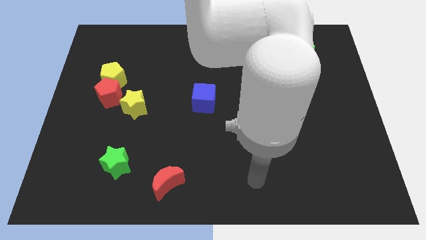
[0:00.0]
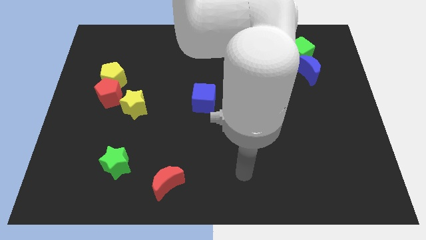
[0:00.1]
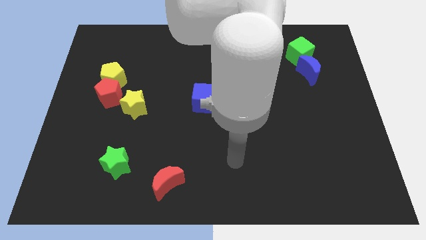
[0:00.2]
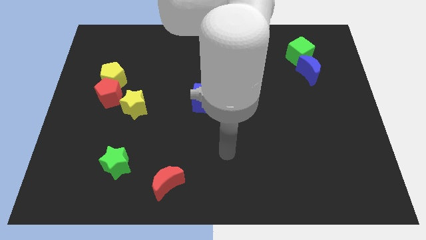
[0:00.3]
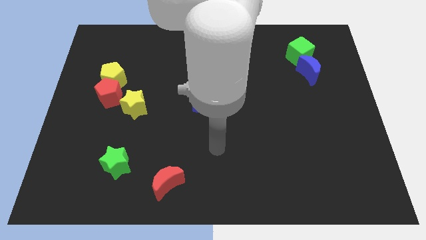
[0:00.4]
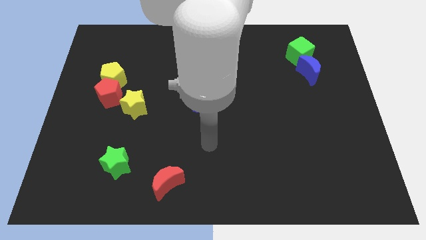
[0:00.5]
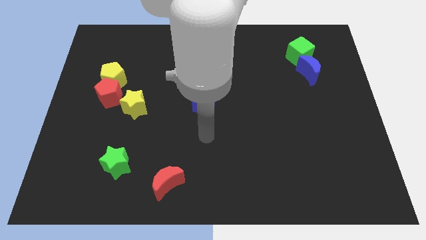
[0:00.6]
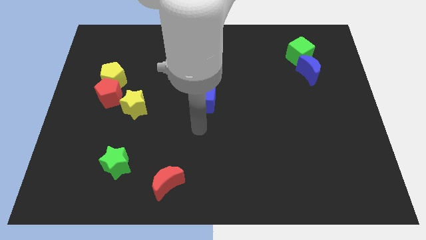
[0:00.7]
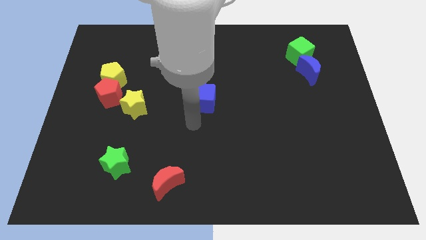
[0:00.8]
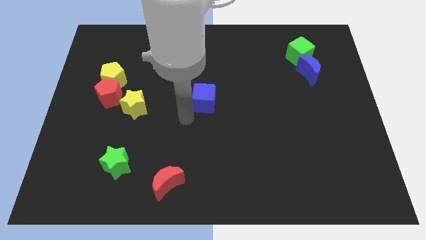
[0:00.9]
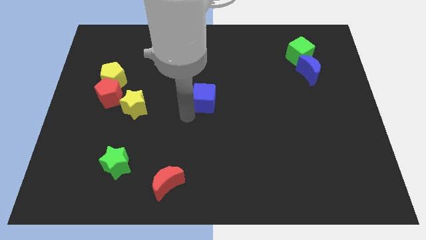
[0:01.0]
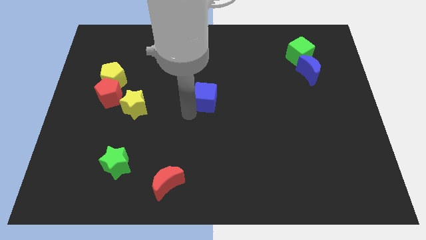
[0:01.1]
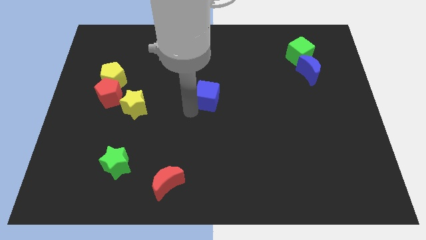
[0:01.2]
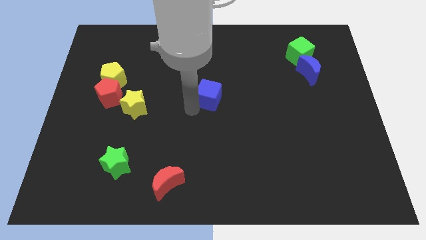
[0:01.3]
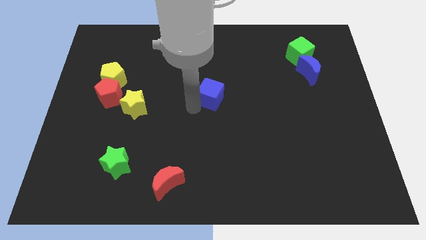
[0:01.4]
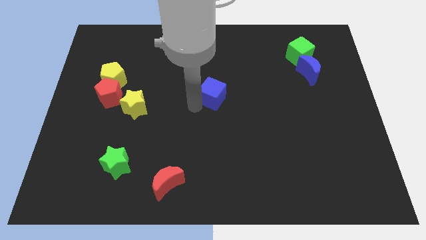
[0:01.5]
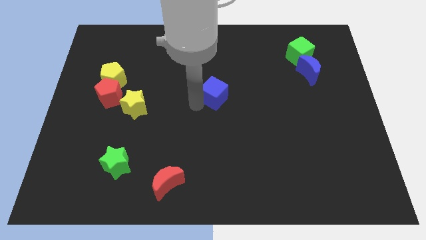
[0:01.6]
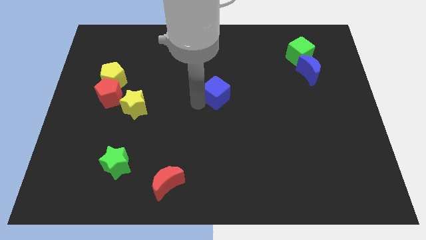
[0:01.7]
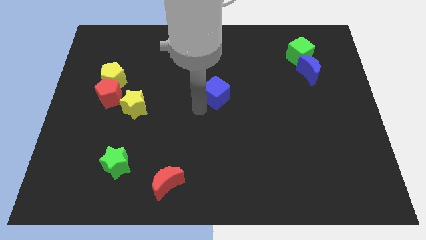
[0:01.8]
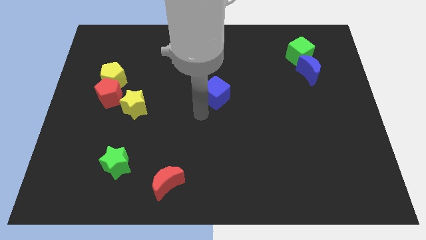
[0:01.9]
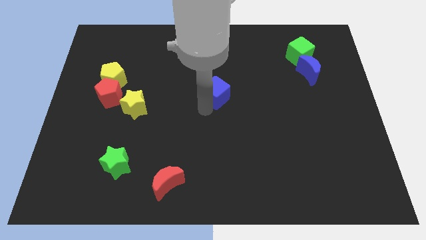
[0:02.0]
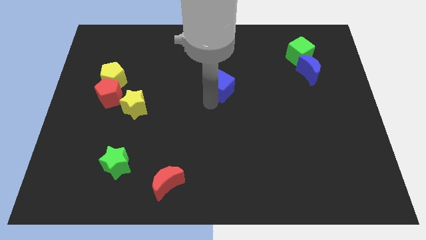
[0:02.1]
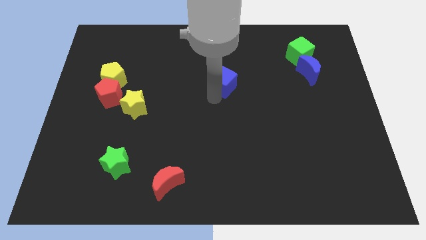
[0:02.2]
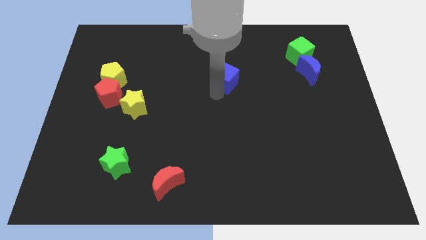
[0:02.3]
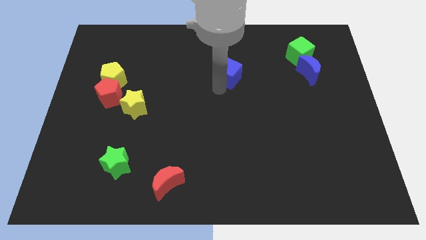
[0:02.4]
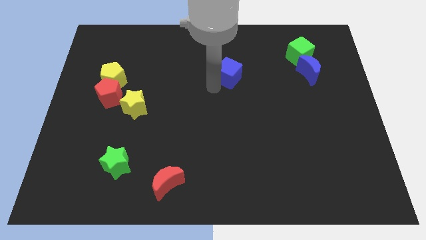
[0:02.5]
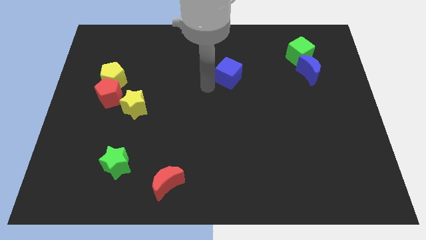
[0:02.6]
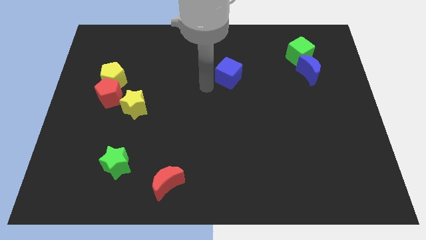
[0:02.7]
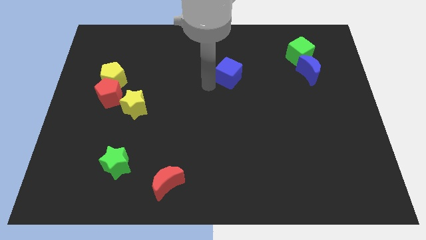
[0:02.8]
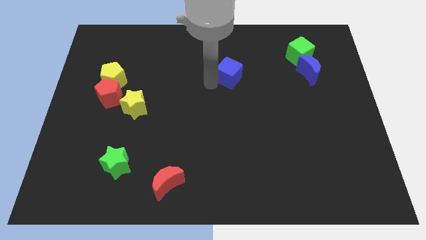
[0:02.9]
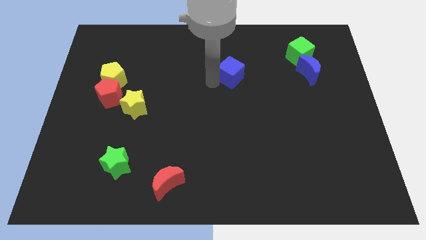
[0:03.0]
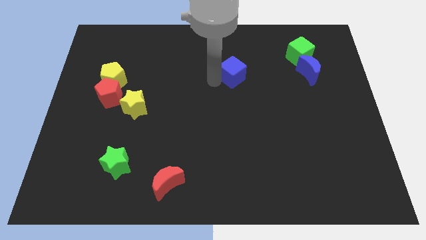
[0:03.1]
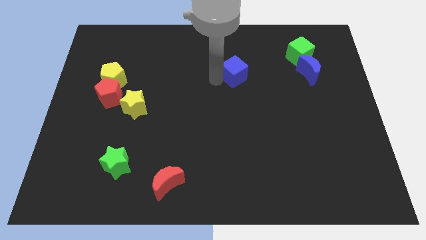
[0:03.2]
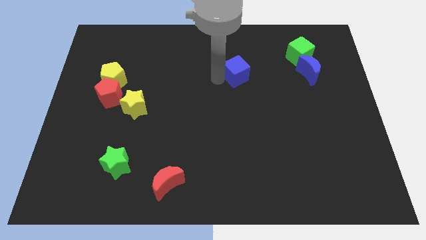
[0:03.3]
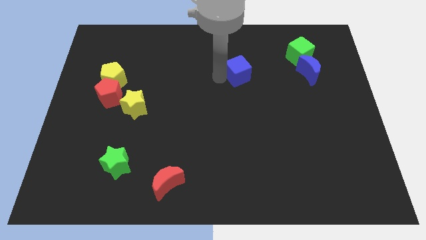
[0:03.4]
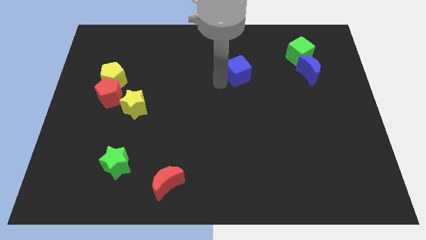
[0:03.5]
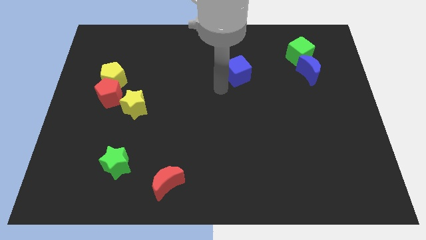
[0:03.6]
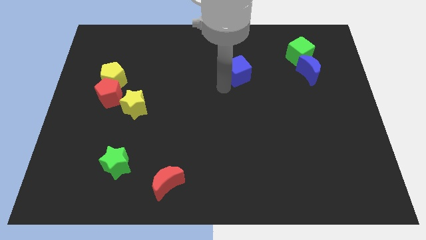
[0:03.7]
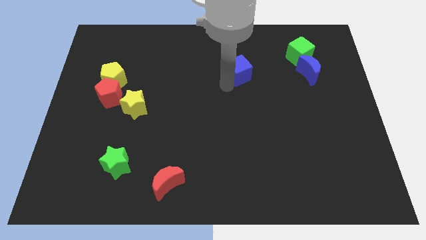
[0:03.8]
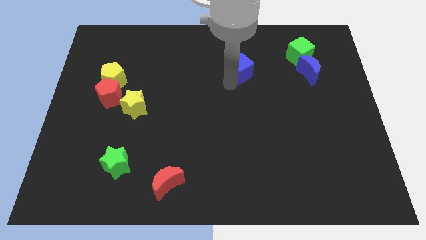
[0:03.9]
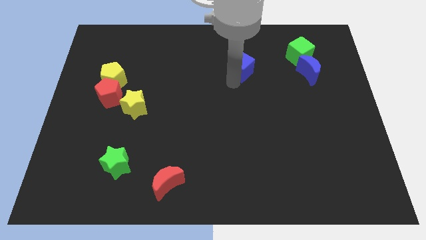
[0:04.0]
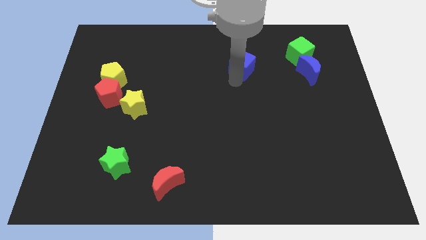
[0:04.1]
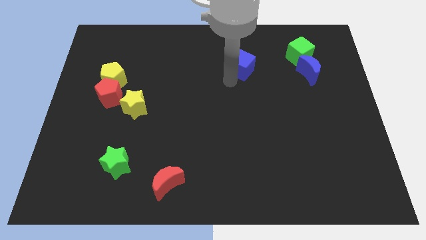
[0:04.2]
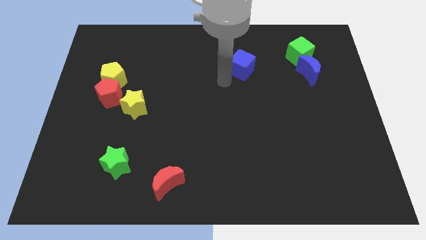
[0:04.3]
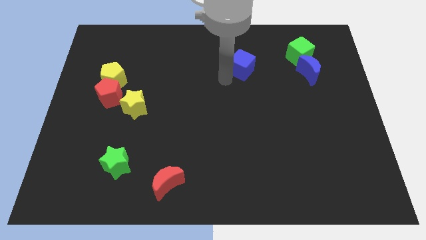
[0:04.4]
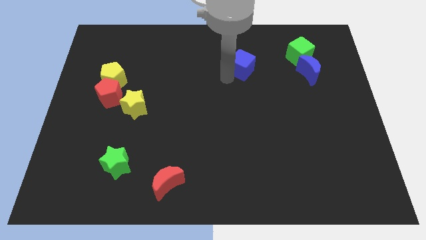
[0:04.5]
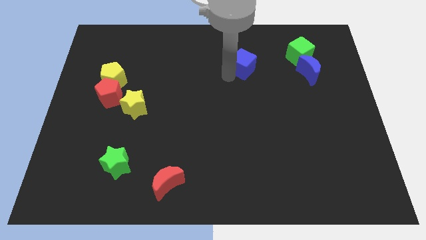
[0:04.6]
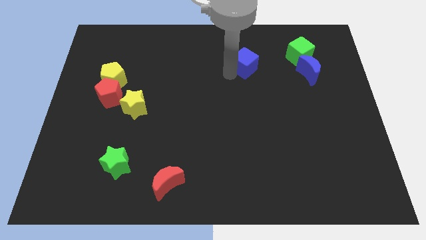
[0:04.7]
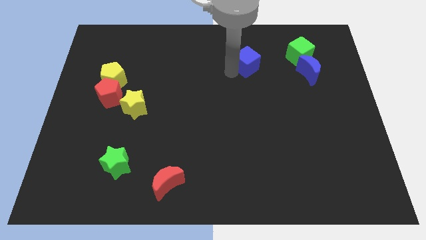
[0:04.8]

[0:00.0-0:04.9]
push the blue cube to the left of the green cube

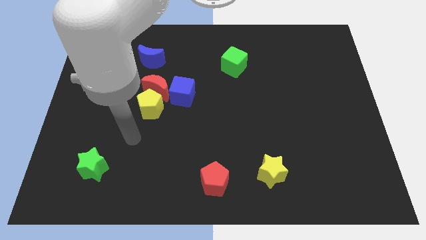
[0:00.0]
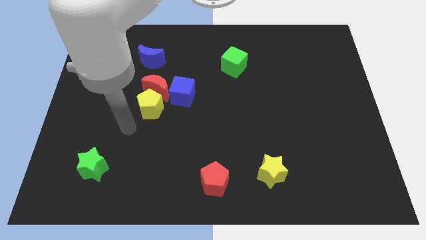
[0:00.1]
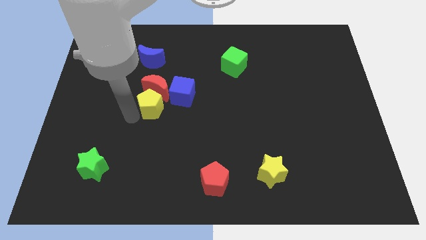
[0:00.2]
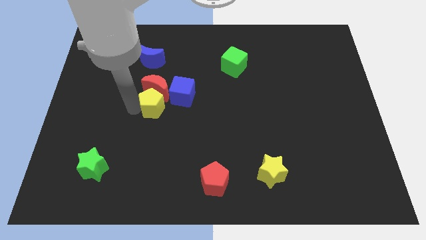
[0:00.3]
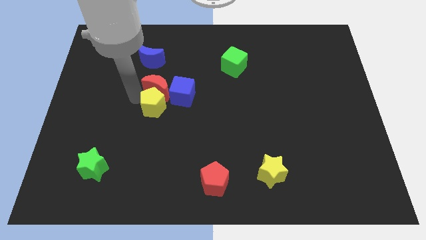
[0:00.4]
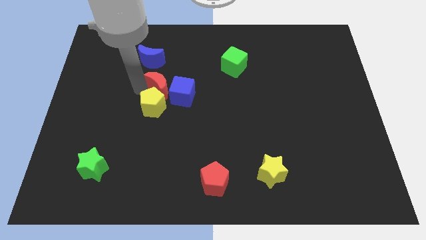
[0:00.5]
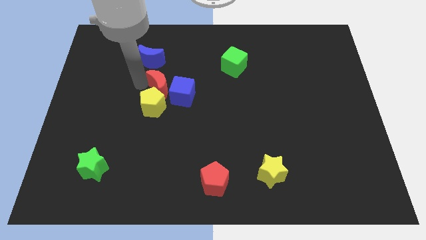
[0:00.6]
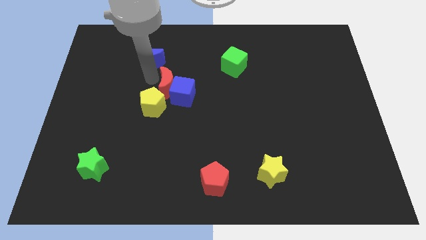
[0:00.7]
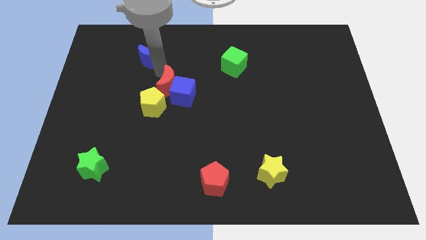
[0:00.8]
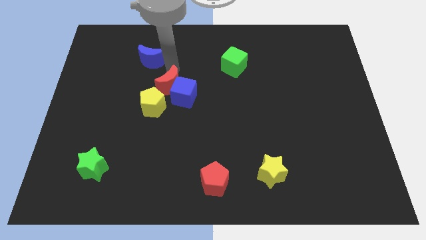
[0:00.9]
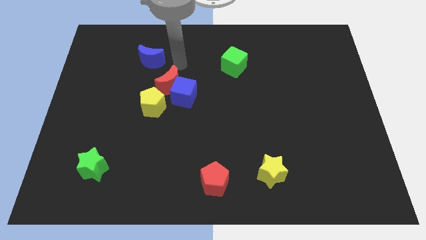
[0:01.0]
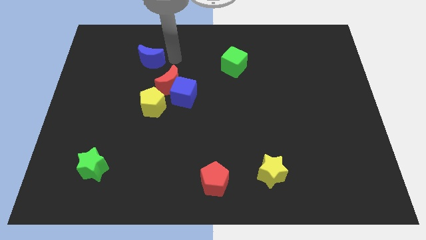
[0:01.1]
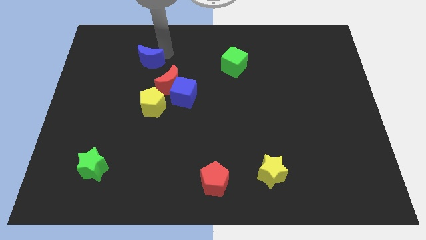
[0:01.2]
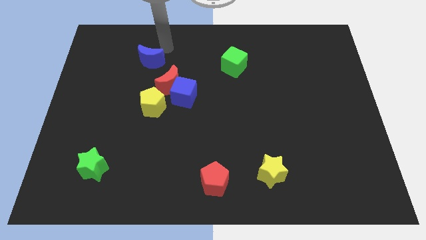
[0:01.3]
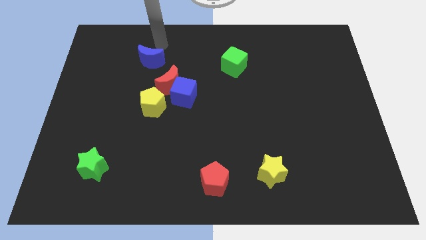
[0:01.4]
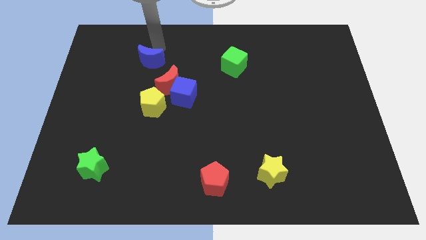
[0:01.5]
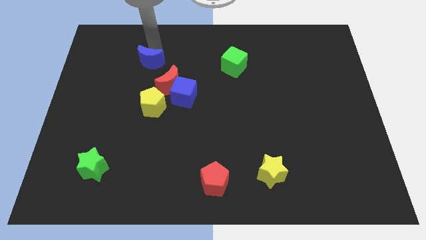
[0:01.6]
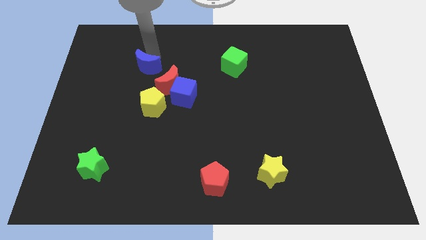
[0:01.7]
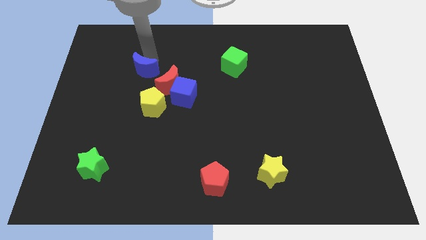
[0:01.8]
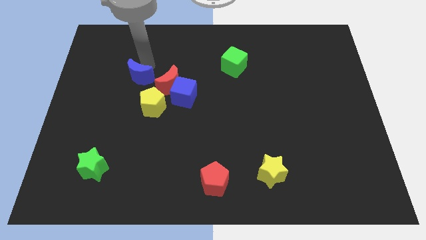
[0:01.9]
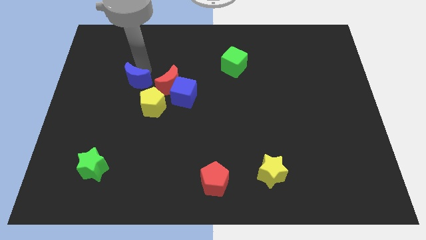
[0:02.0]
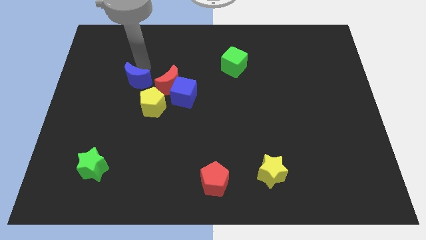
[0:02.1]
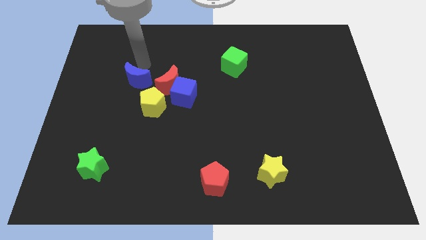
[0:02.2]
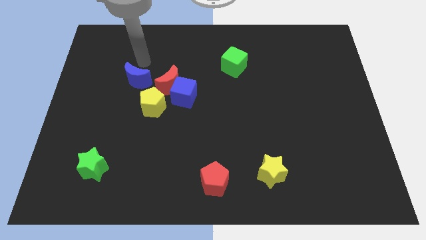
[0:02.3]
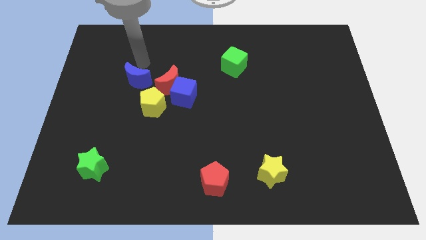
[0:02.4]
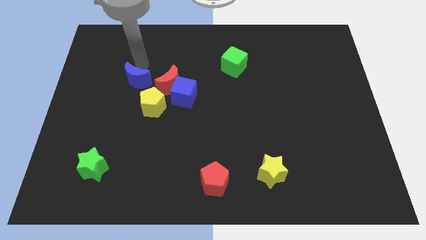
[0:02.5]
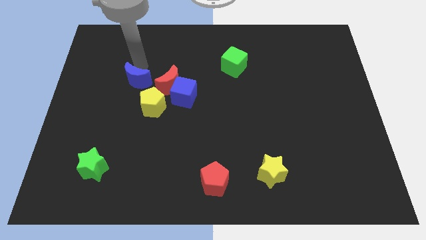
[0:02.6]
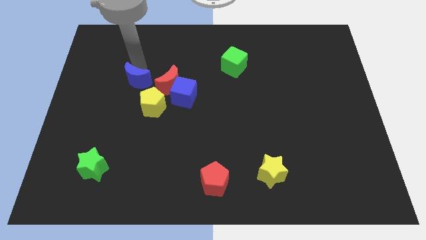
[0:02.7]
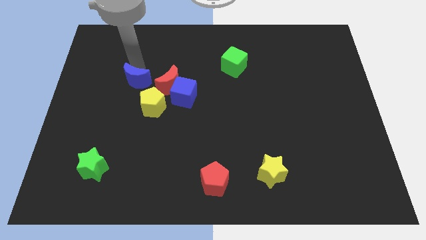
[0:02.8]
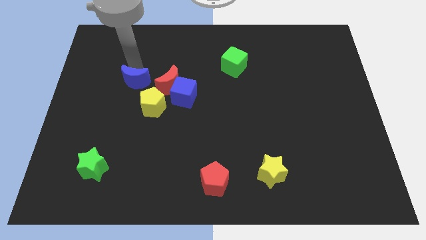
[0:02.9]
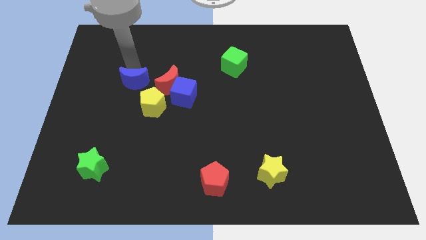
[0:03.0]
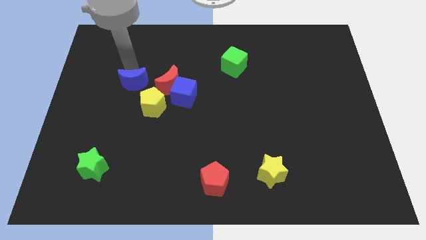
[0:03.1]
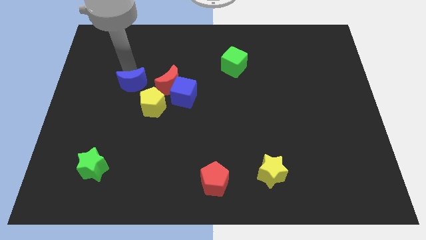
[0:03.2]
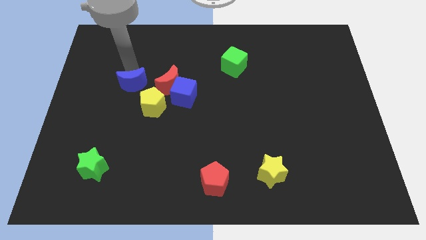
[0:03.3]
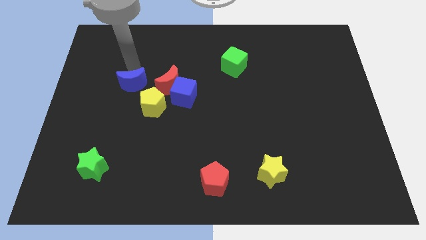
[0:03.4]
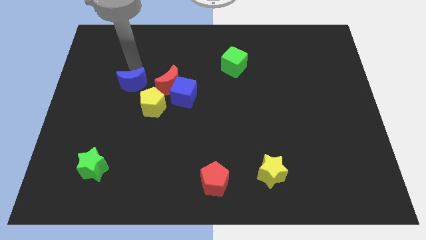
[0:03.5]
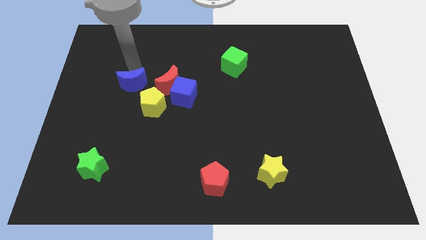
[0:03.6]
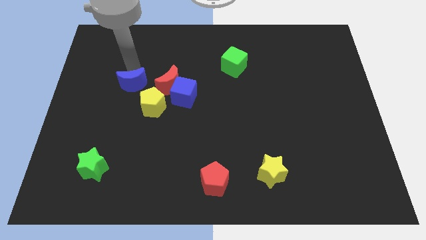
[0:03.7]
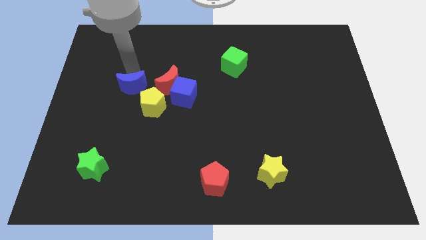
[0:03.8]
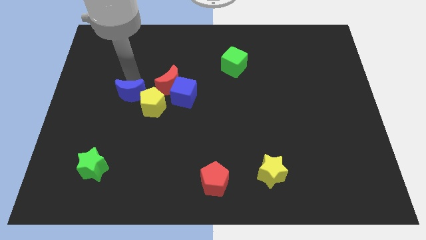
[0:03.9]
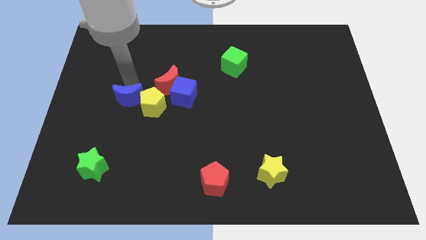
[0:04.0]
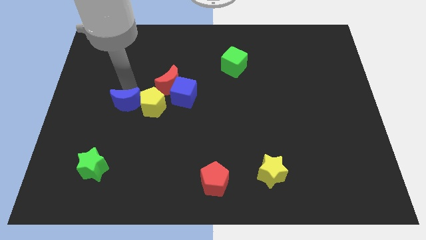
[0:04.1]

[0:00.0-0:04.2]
put the blue moon to the bottom left side of the yellow pentagon
